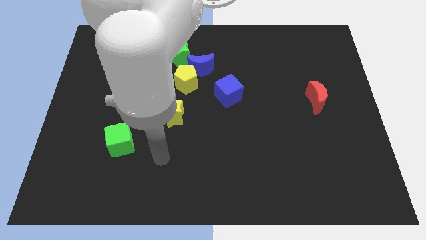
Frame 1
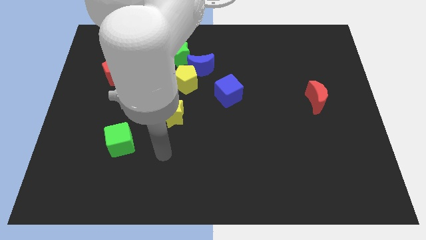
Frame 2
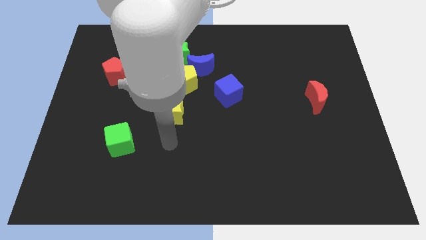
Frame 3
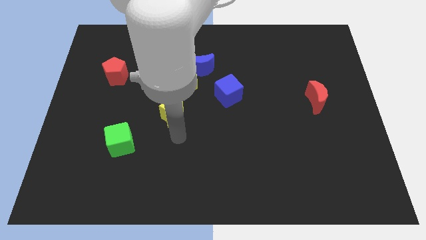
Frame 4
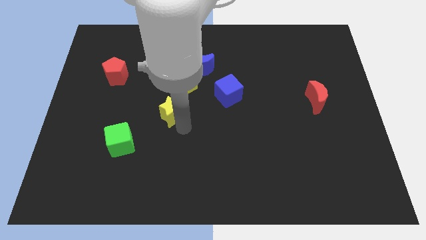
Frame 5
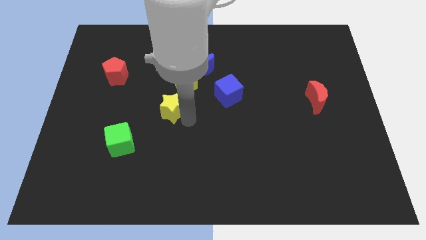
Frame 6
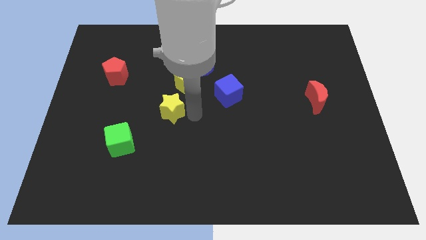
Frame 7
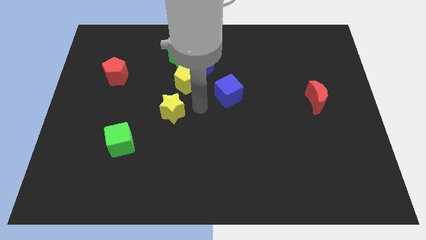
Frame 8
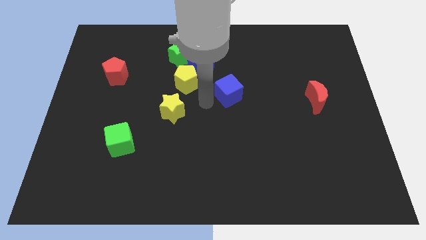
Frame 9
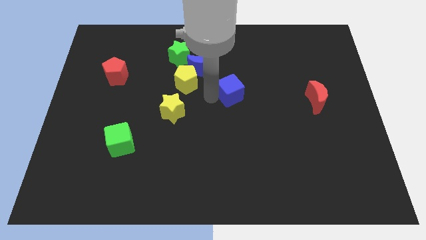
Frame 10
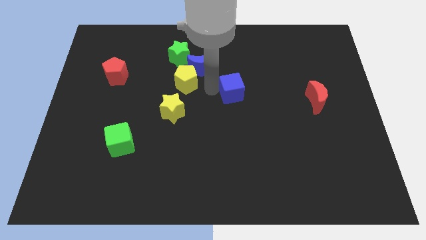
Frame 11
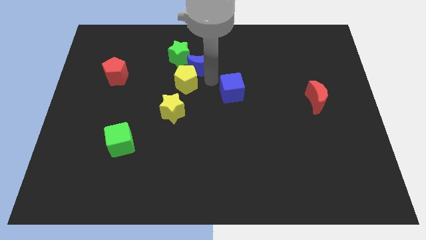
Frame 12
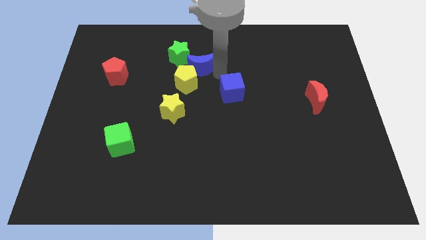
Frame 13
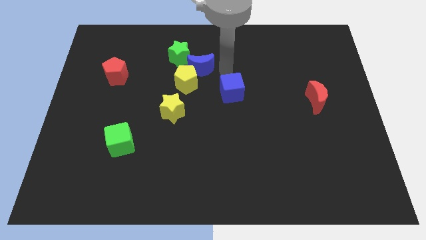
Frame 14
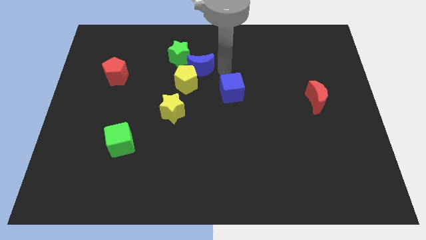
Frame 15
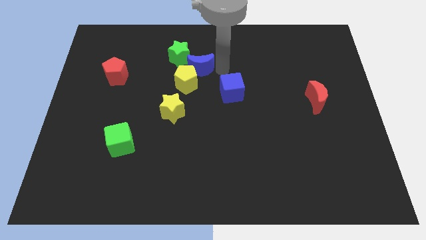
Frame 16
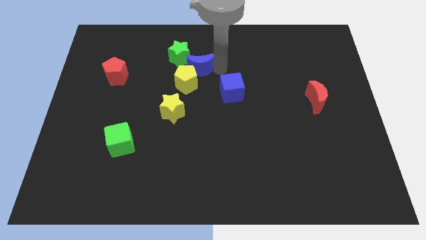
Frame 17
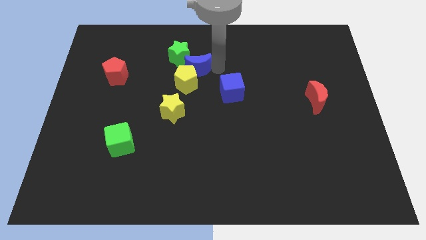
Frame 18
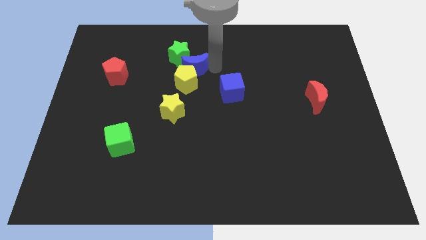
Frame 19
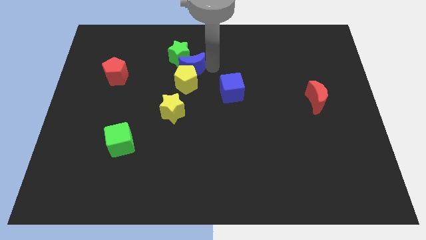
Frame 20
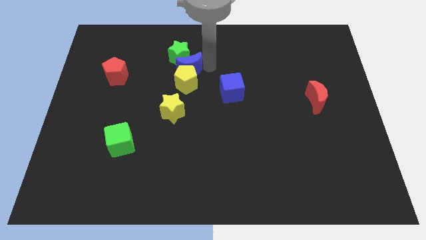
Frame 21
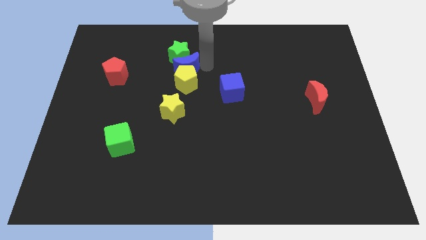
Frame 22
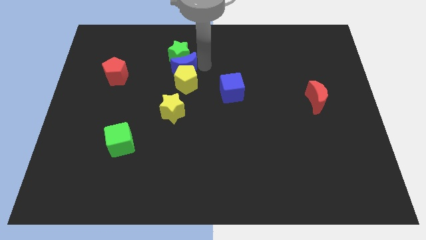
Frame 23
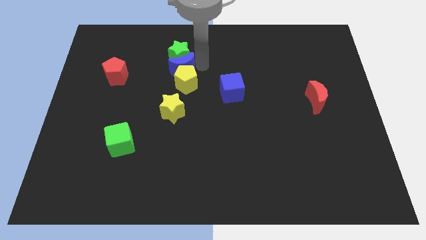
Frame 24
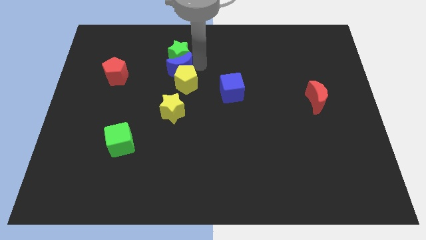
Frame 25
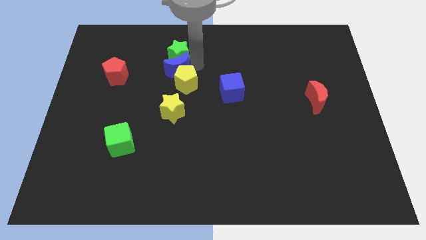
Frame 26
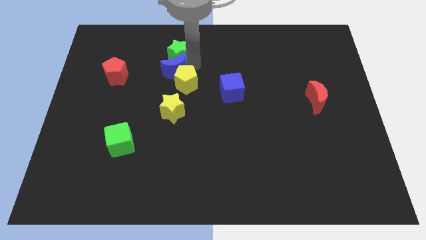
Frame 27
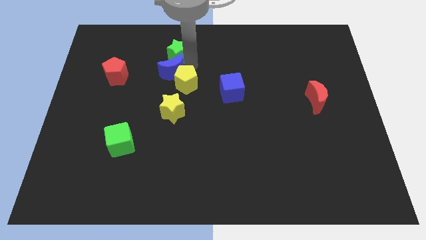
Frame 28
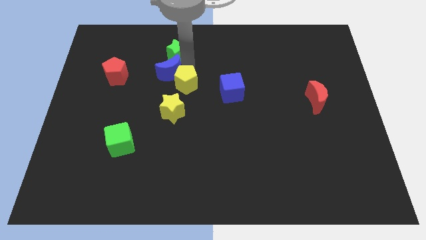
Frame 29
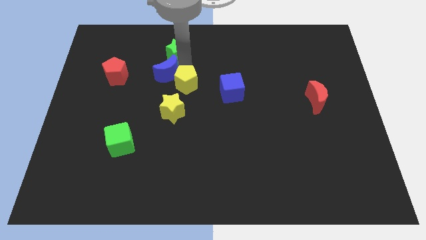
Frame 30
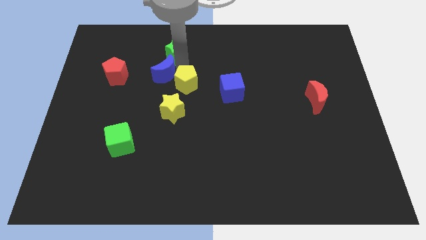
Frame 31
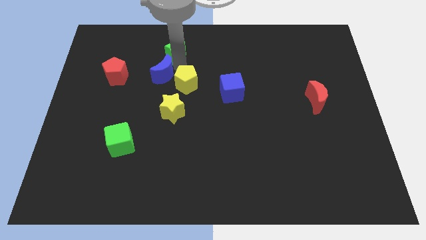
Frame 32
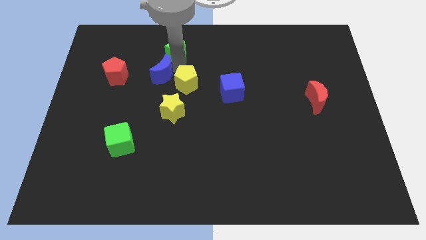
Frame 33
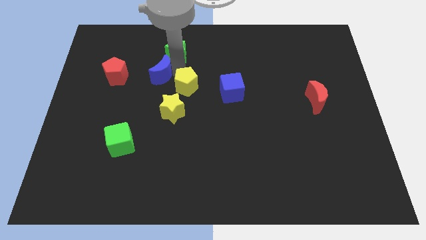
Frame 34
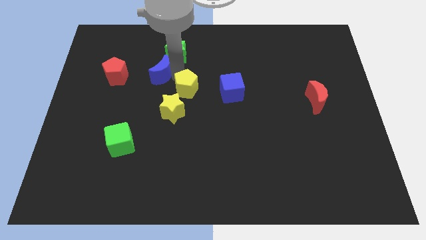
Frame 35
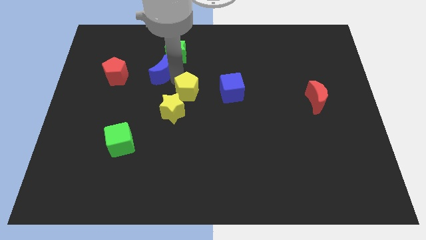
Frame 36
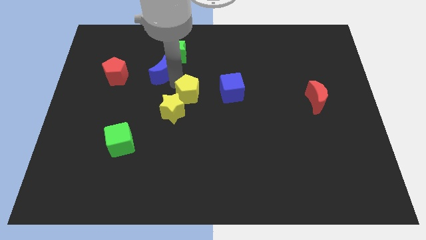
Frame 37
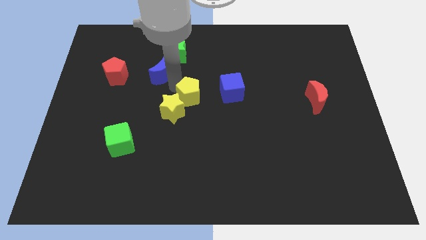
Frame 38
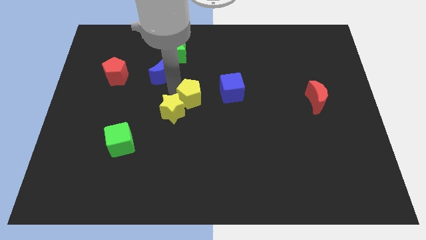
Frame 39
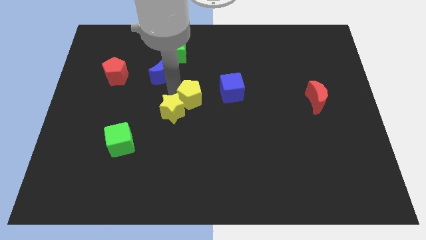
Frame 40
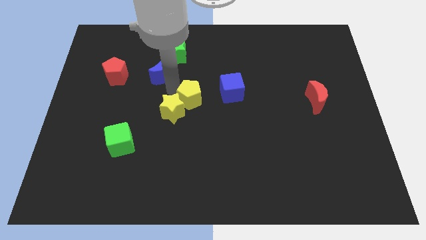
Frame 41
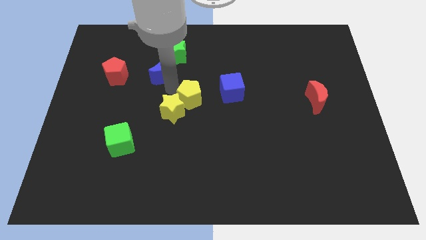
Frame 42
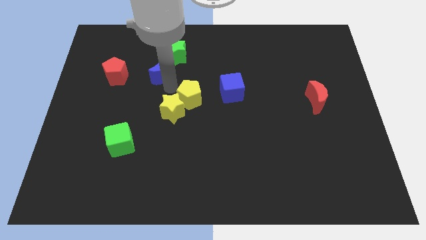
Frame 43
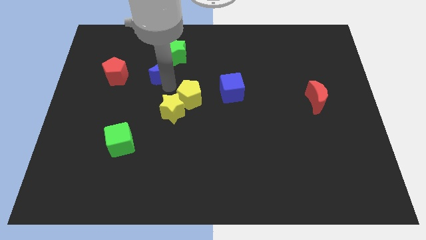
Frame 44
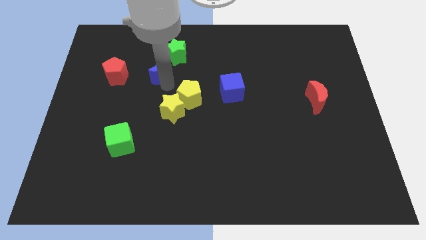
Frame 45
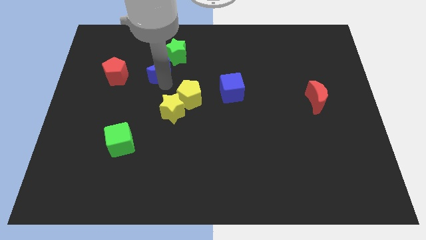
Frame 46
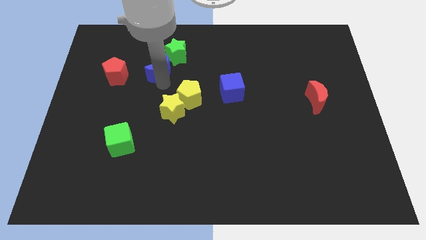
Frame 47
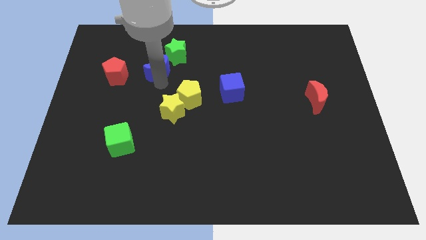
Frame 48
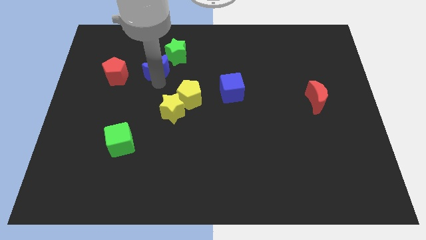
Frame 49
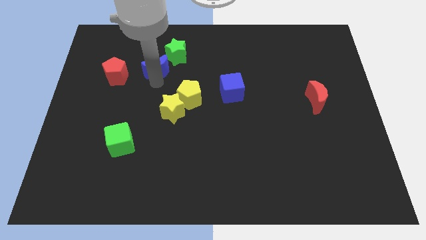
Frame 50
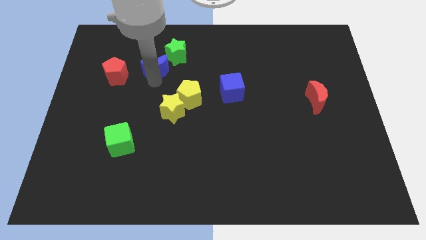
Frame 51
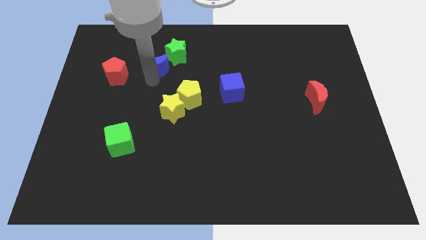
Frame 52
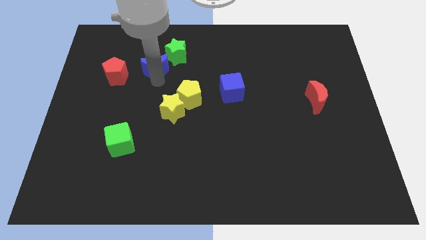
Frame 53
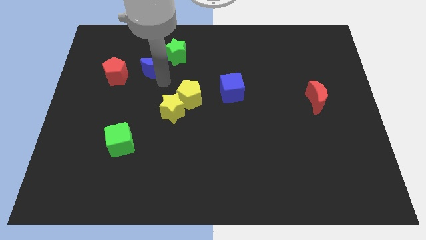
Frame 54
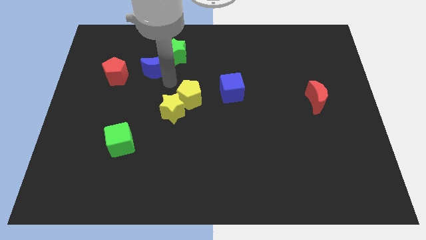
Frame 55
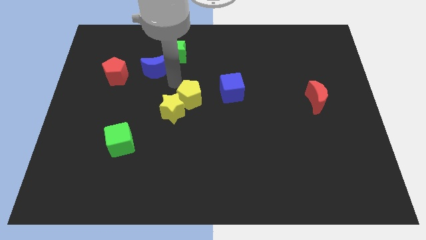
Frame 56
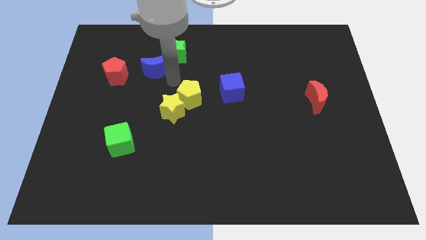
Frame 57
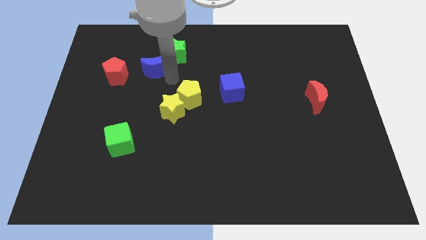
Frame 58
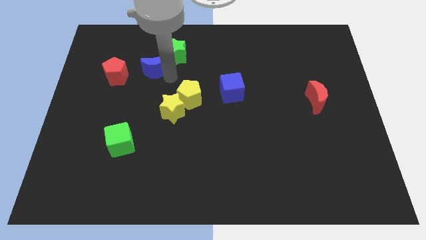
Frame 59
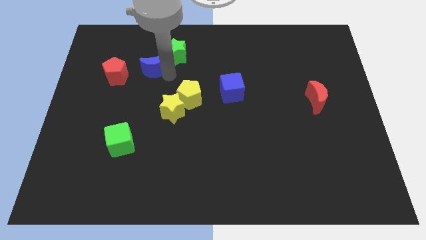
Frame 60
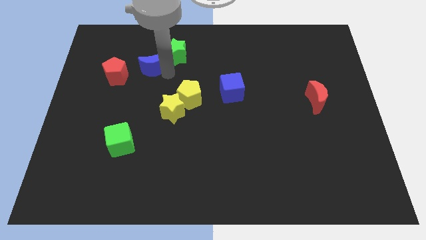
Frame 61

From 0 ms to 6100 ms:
put the blue moon to the top right of the red pentagon

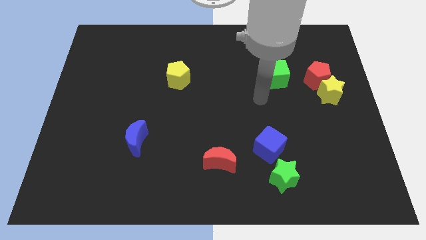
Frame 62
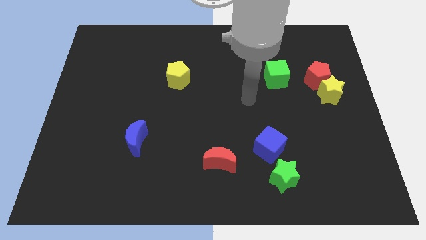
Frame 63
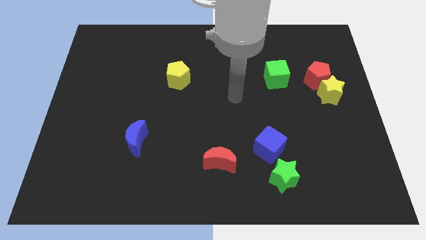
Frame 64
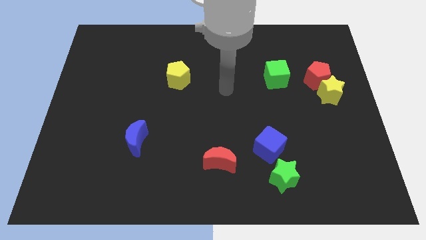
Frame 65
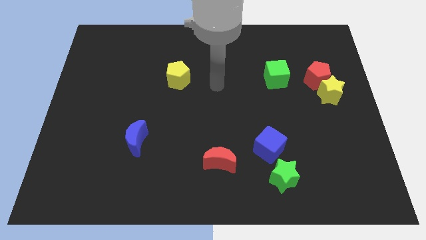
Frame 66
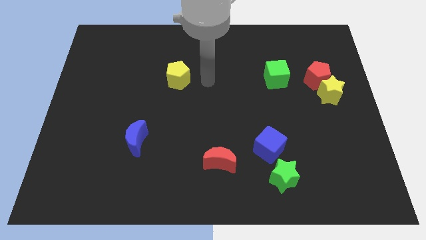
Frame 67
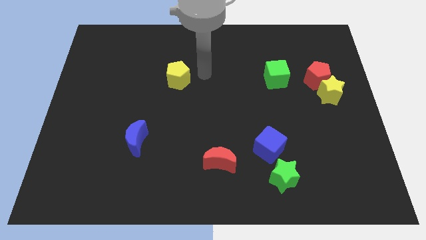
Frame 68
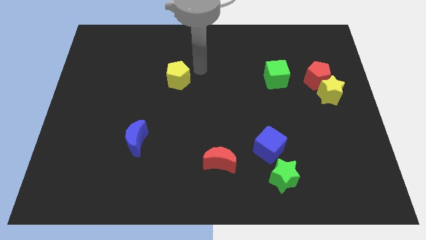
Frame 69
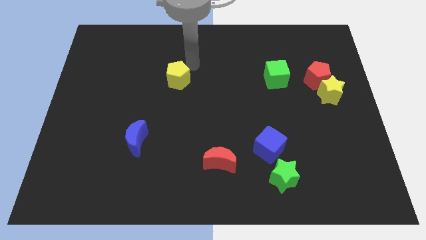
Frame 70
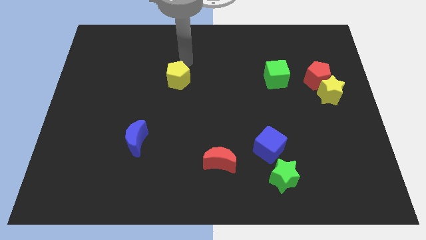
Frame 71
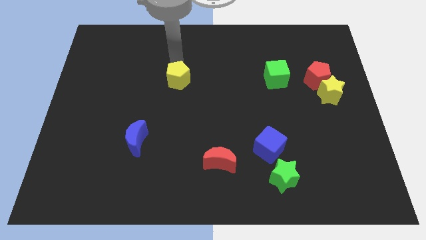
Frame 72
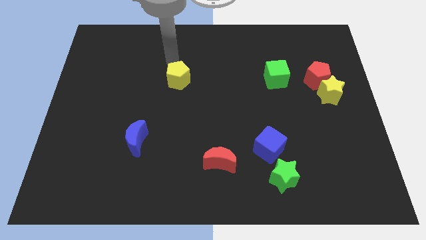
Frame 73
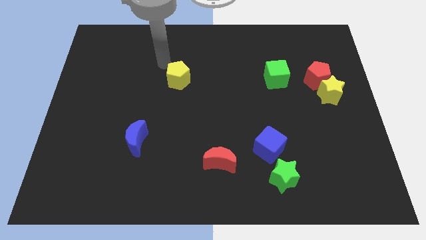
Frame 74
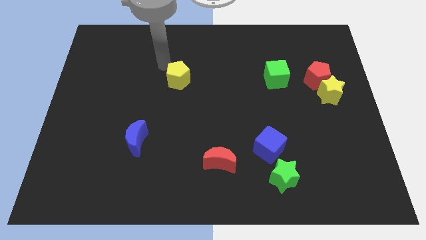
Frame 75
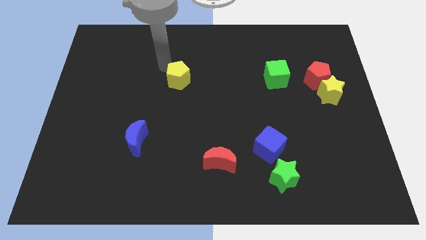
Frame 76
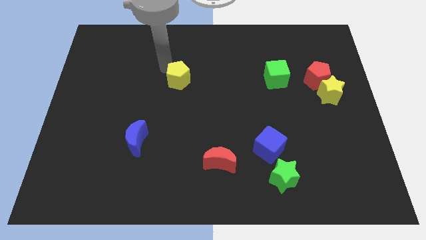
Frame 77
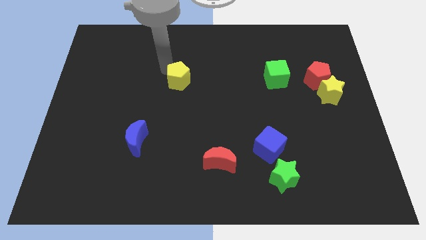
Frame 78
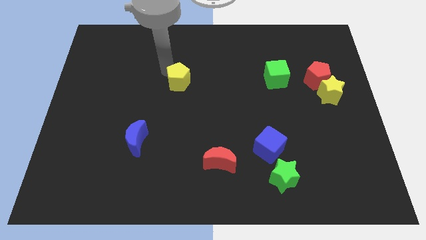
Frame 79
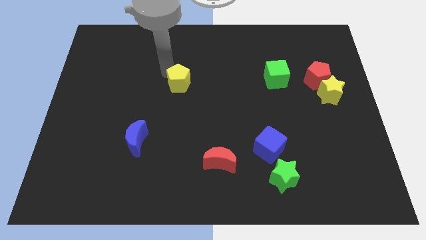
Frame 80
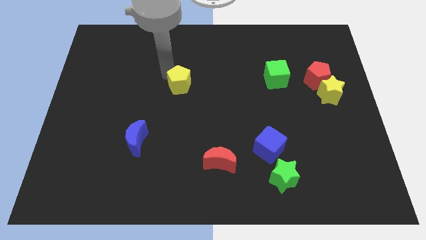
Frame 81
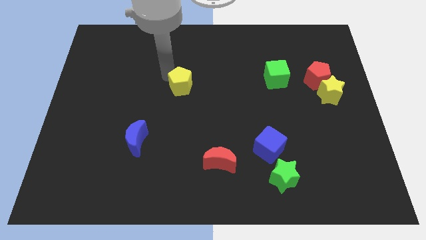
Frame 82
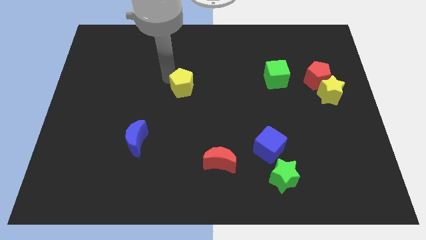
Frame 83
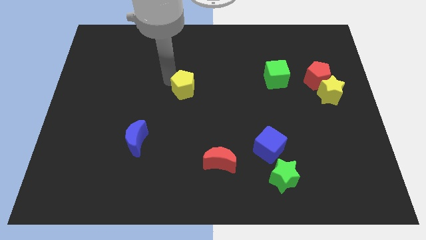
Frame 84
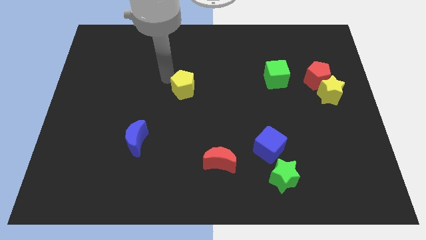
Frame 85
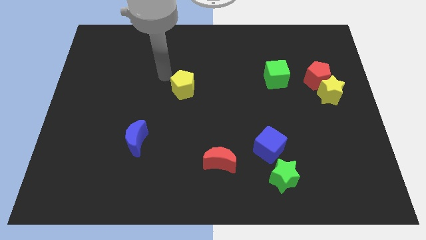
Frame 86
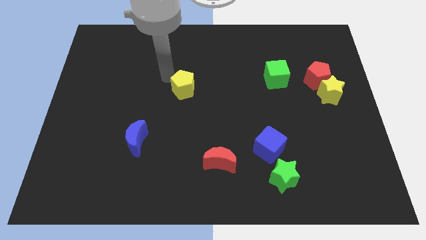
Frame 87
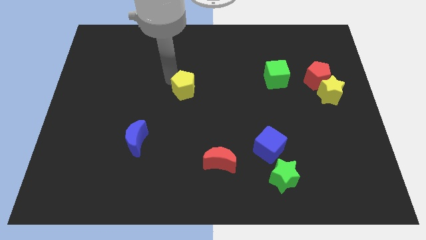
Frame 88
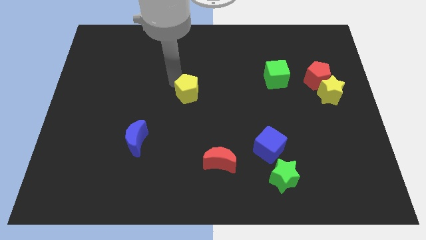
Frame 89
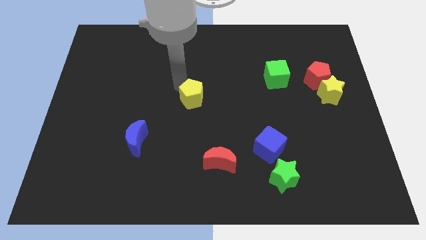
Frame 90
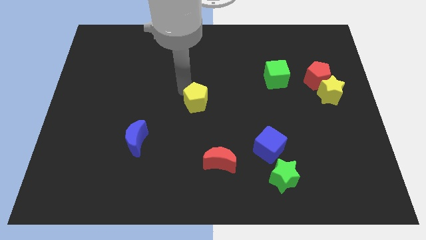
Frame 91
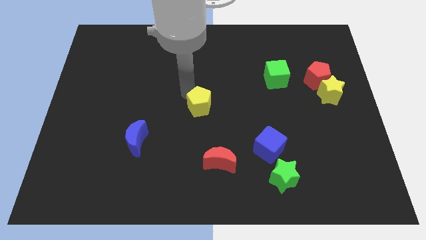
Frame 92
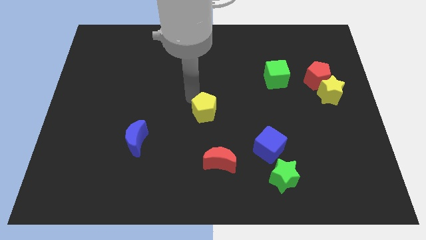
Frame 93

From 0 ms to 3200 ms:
slide the yellow pentagon above the red moon
